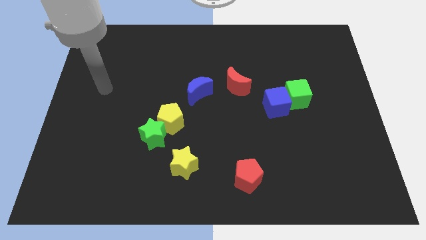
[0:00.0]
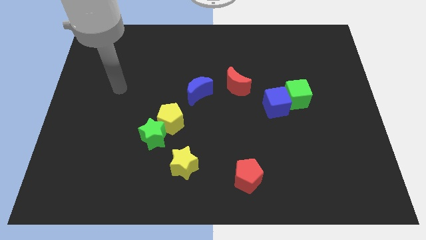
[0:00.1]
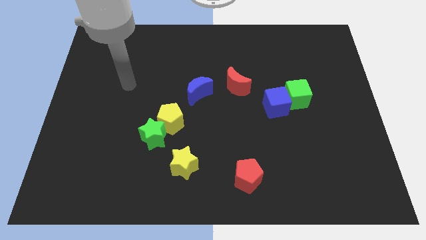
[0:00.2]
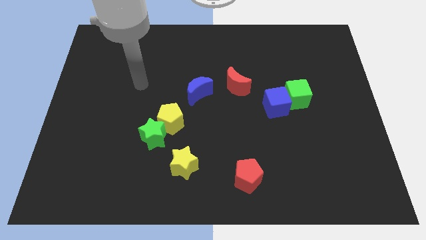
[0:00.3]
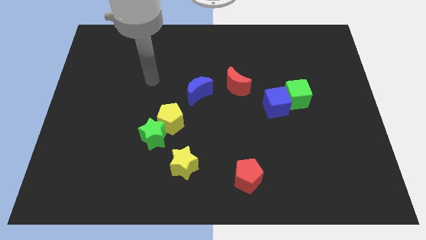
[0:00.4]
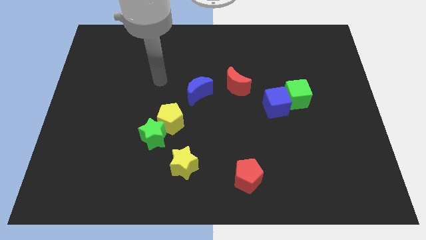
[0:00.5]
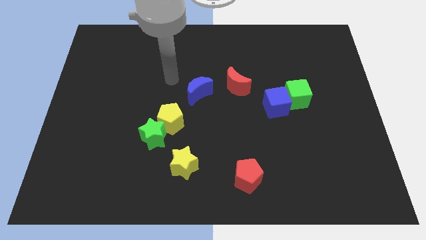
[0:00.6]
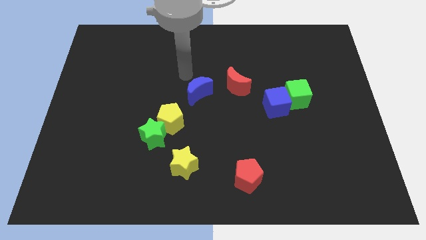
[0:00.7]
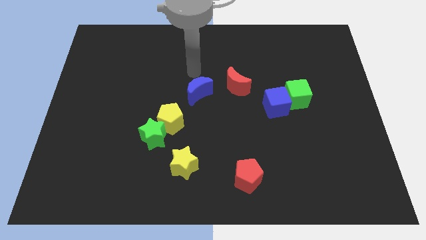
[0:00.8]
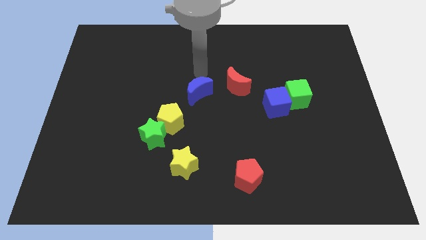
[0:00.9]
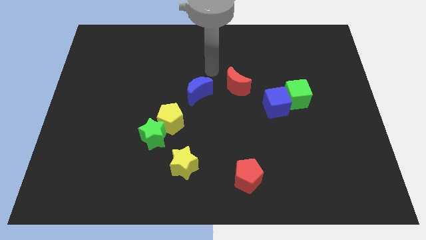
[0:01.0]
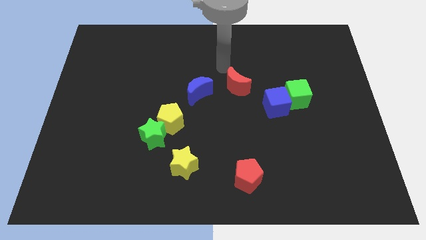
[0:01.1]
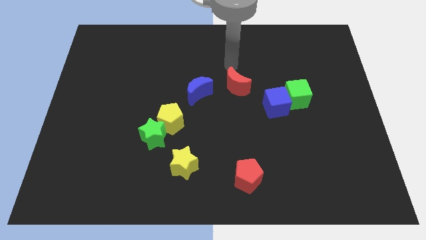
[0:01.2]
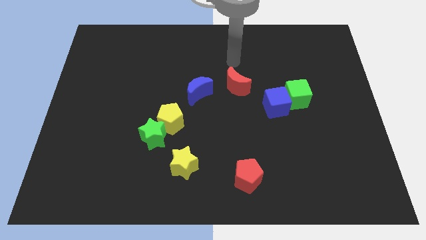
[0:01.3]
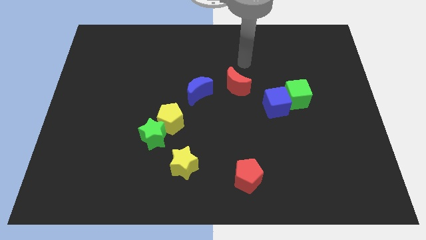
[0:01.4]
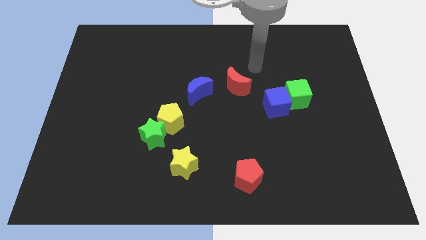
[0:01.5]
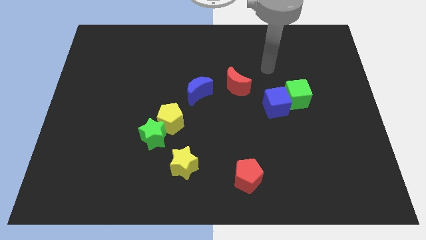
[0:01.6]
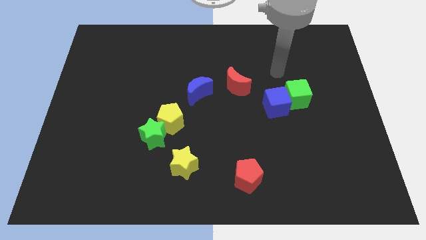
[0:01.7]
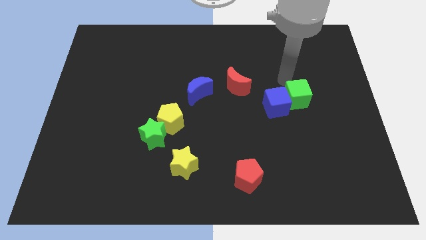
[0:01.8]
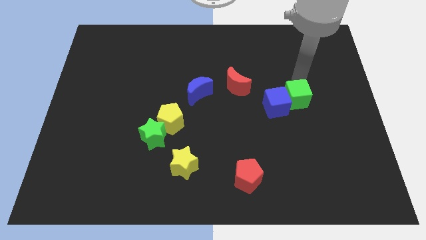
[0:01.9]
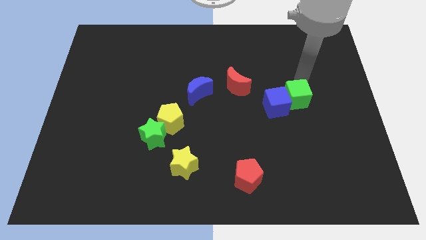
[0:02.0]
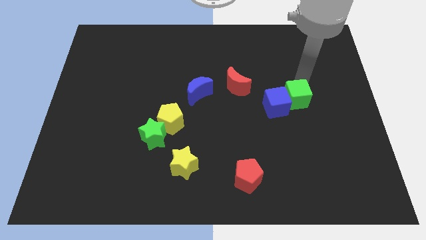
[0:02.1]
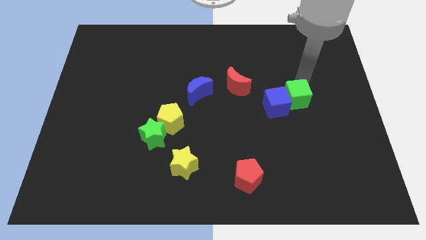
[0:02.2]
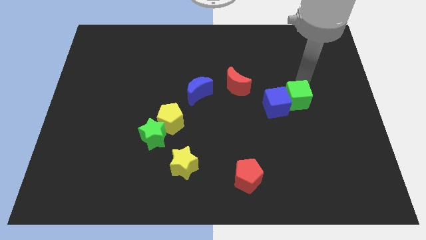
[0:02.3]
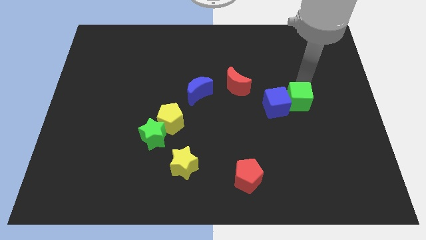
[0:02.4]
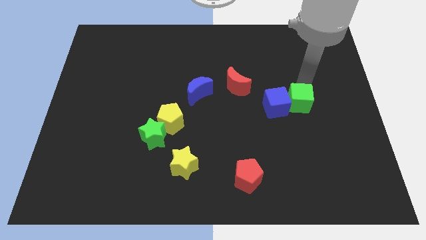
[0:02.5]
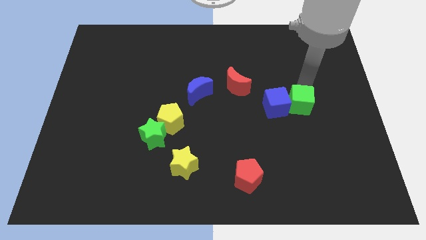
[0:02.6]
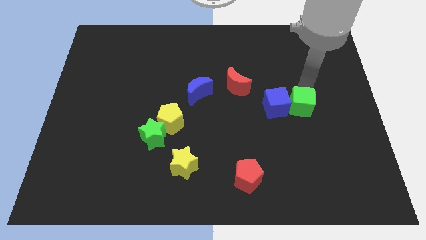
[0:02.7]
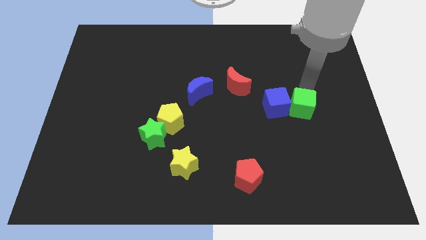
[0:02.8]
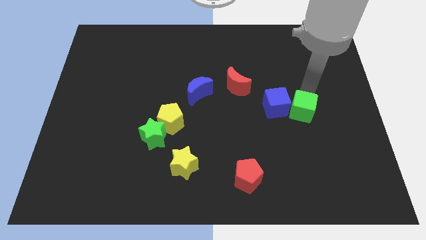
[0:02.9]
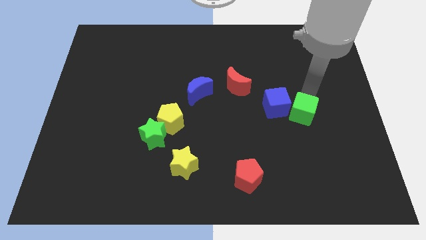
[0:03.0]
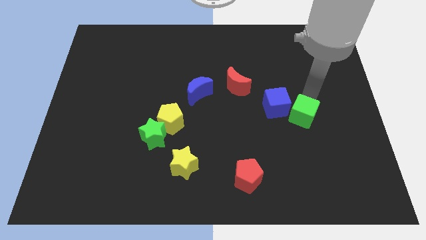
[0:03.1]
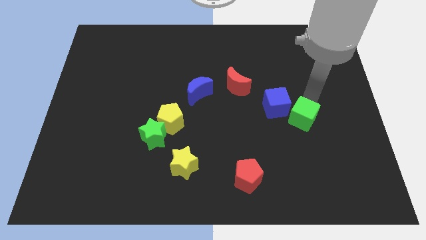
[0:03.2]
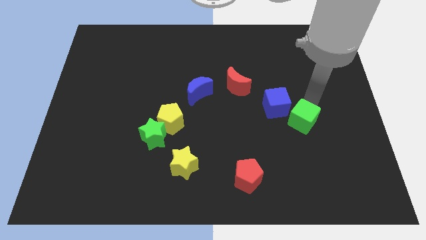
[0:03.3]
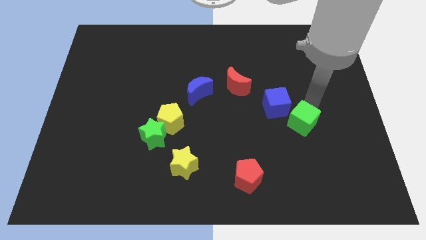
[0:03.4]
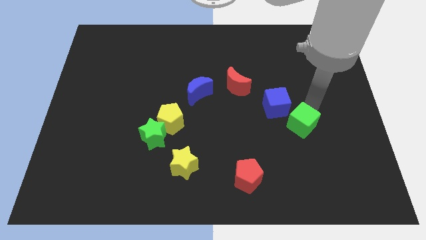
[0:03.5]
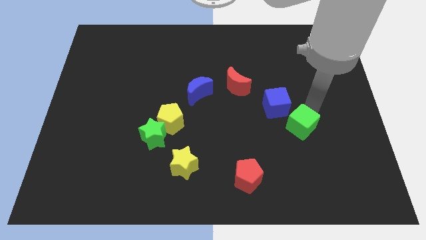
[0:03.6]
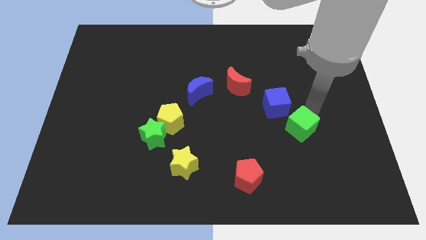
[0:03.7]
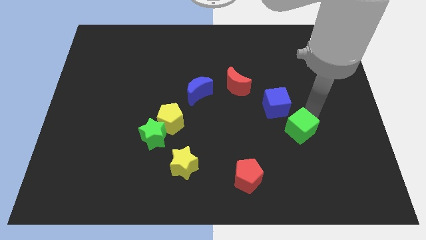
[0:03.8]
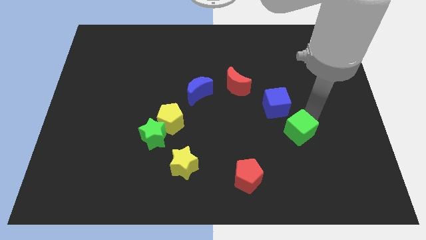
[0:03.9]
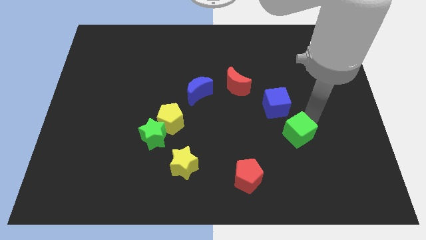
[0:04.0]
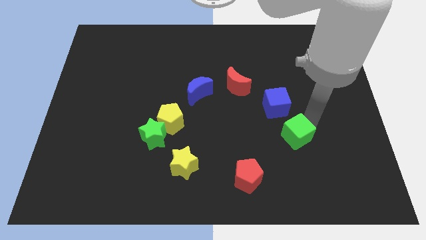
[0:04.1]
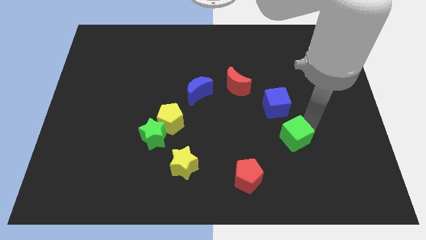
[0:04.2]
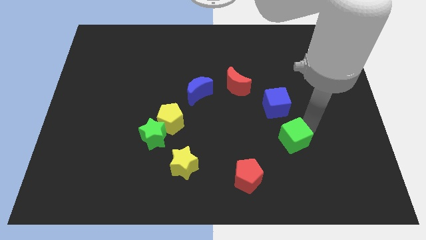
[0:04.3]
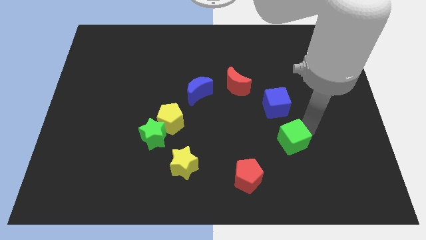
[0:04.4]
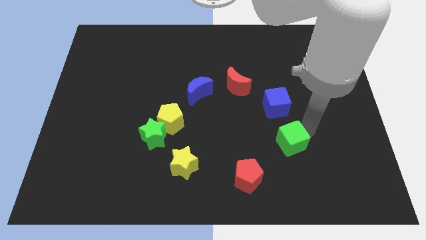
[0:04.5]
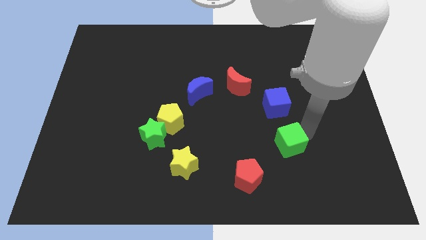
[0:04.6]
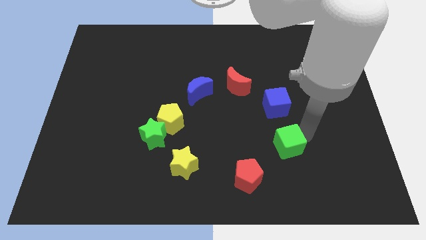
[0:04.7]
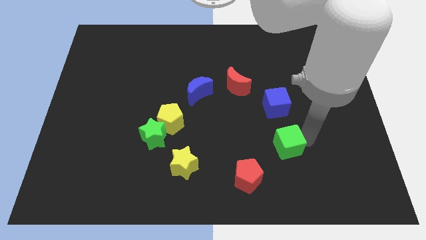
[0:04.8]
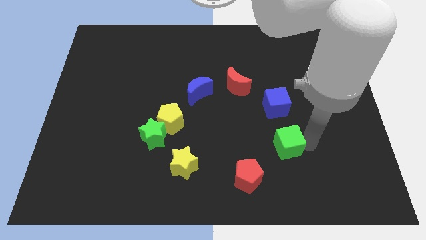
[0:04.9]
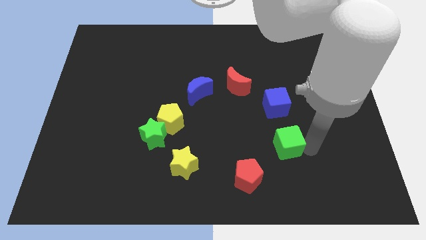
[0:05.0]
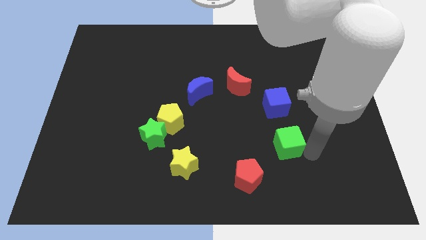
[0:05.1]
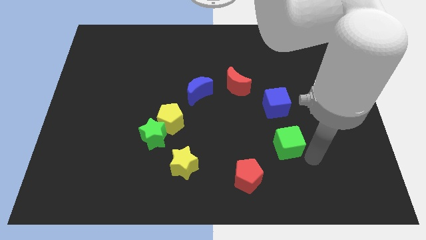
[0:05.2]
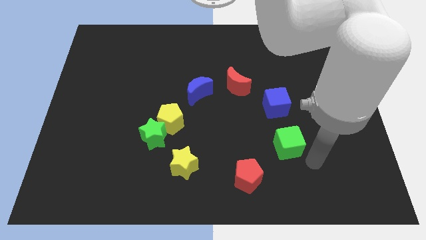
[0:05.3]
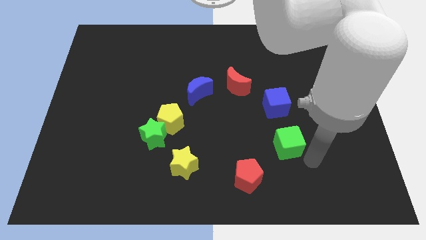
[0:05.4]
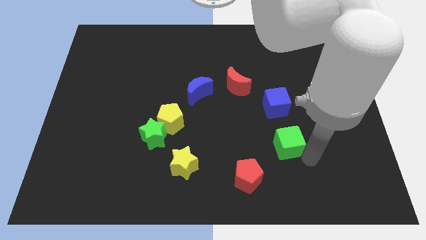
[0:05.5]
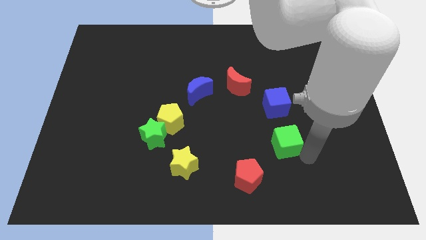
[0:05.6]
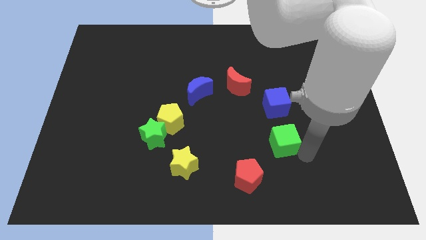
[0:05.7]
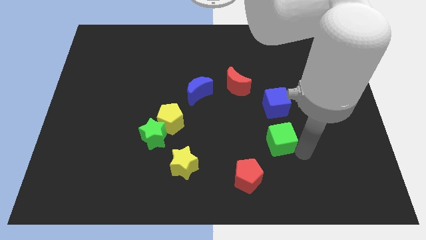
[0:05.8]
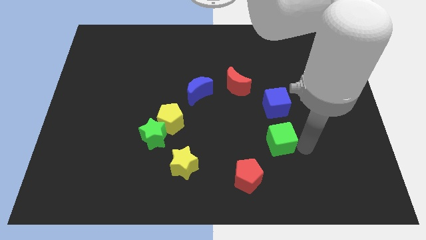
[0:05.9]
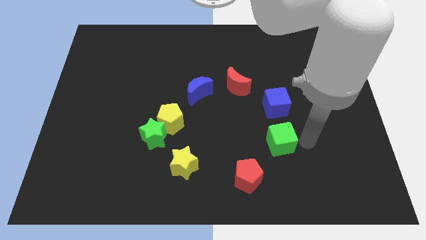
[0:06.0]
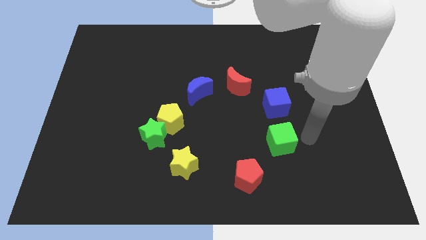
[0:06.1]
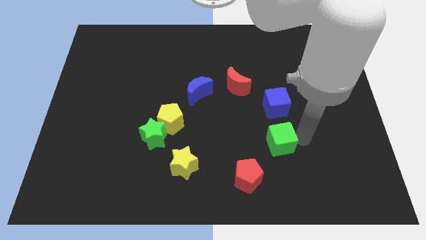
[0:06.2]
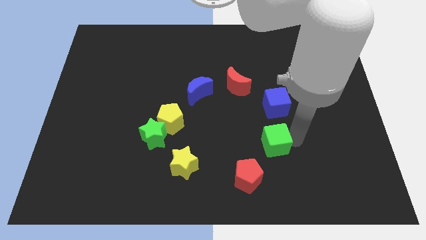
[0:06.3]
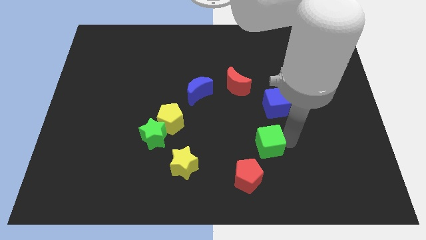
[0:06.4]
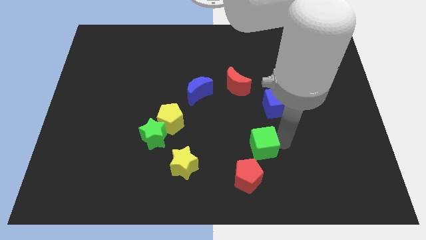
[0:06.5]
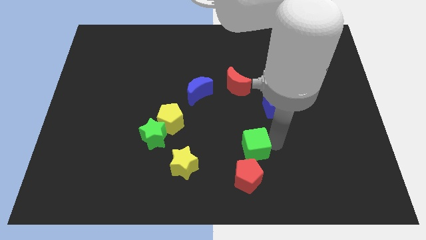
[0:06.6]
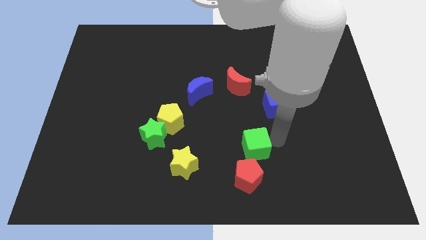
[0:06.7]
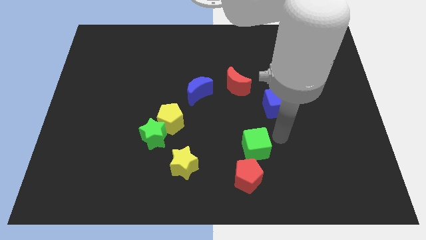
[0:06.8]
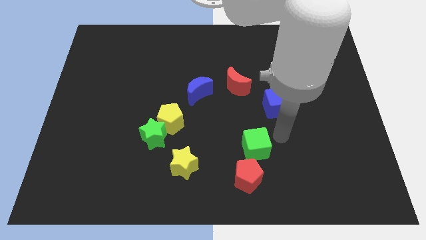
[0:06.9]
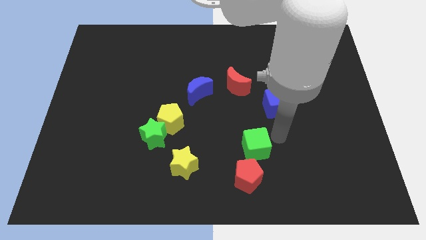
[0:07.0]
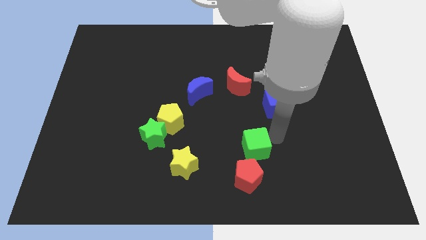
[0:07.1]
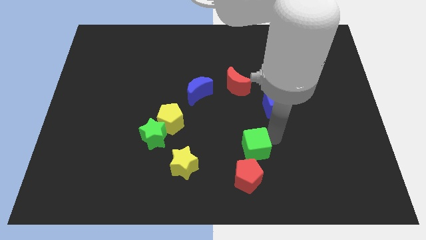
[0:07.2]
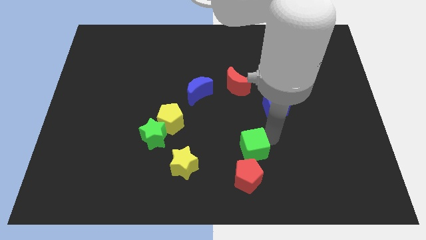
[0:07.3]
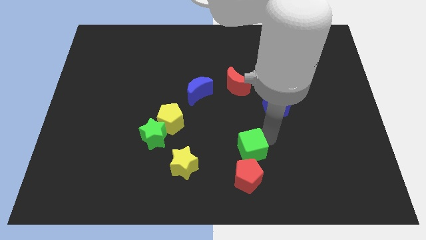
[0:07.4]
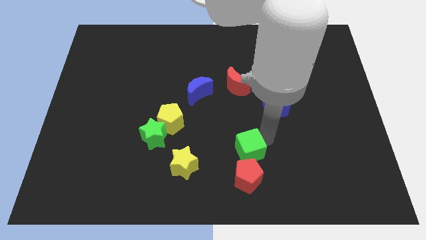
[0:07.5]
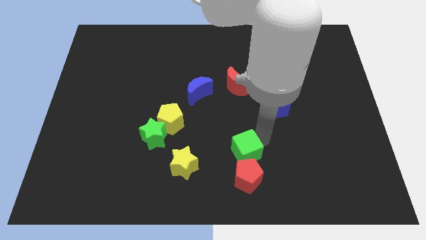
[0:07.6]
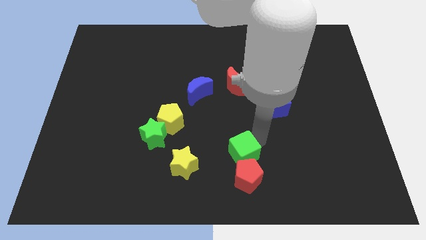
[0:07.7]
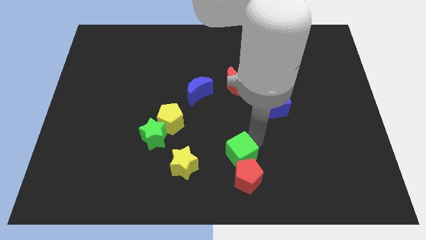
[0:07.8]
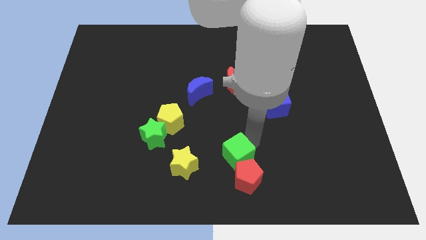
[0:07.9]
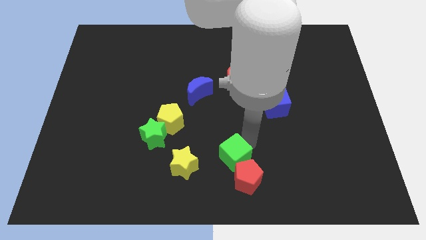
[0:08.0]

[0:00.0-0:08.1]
slide the green cube to the bottom side
